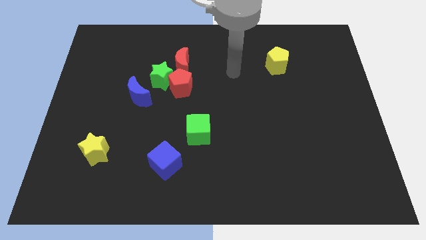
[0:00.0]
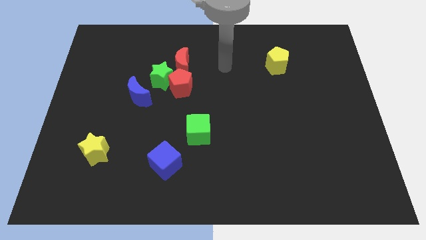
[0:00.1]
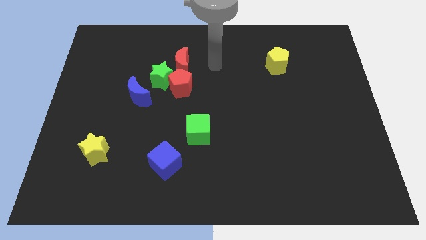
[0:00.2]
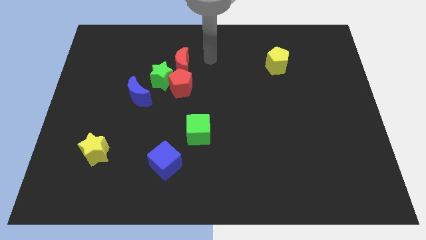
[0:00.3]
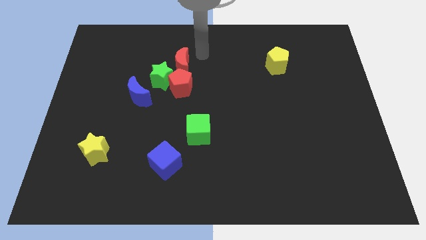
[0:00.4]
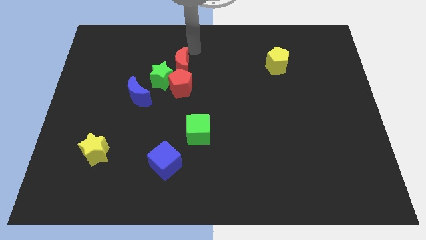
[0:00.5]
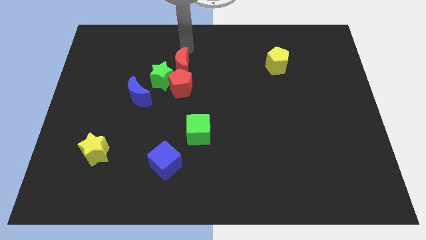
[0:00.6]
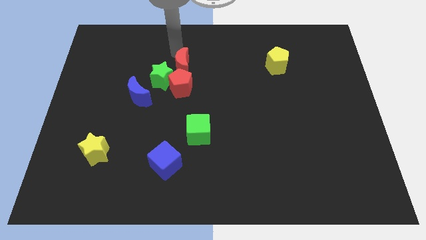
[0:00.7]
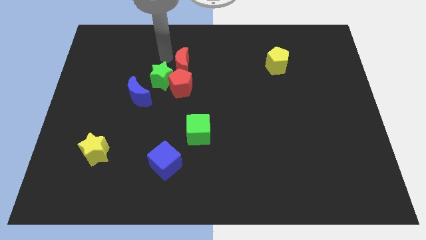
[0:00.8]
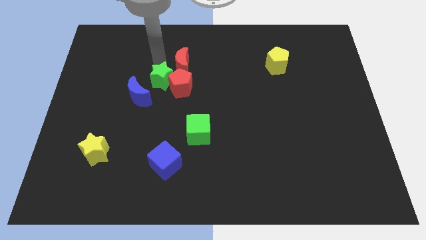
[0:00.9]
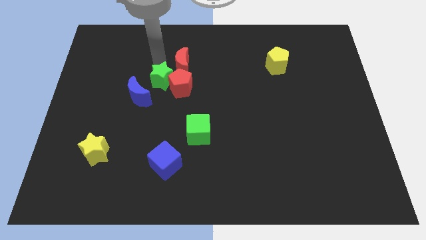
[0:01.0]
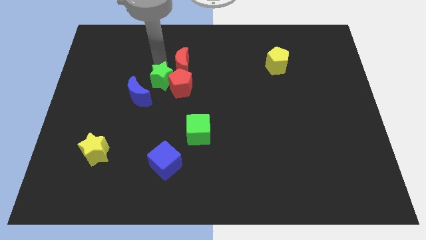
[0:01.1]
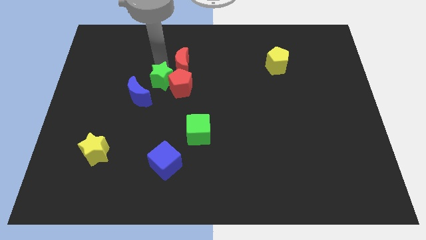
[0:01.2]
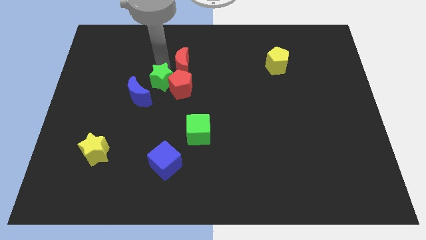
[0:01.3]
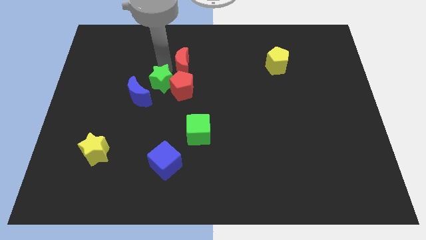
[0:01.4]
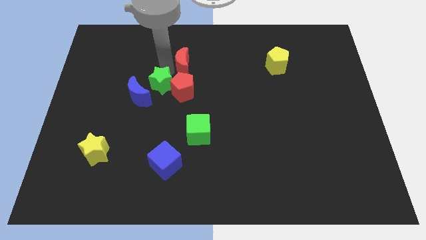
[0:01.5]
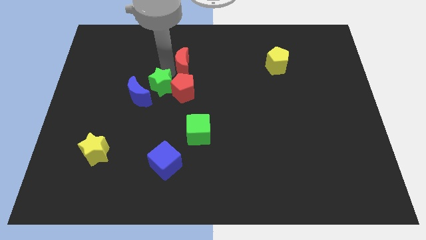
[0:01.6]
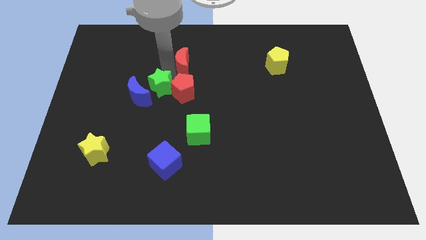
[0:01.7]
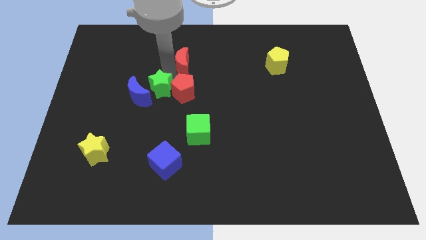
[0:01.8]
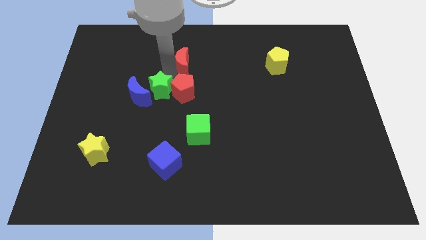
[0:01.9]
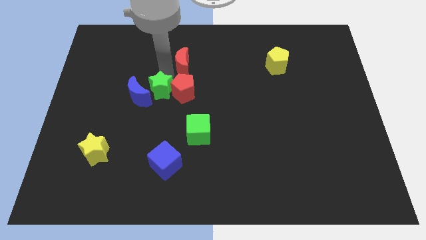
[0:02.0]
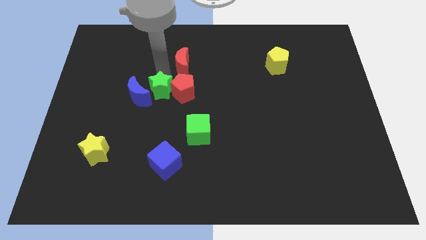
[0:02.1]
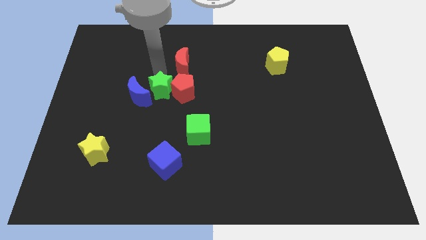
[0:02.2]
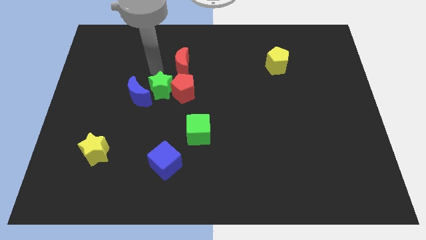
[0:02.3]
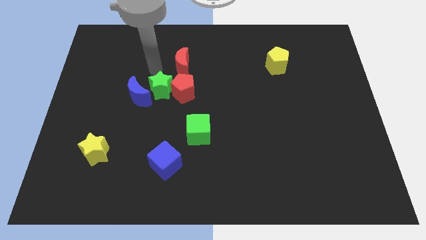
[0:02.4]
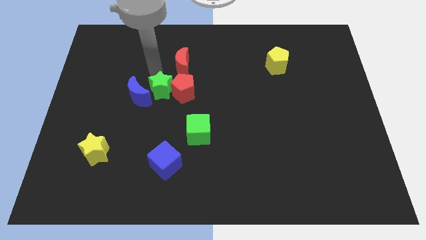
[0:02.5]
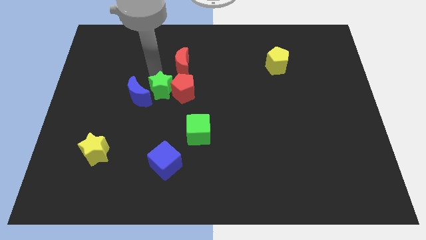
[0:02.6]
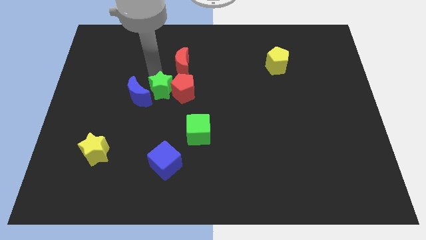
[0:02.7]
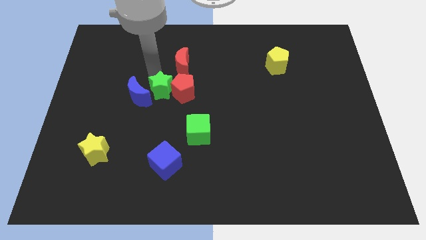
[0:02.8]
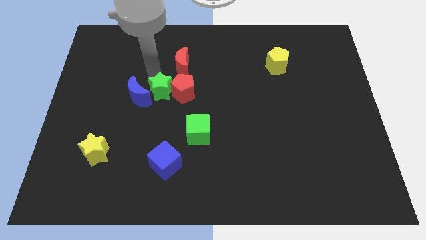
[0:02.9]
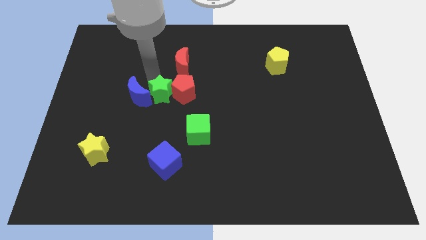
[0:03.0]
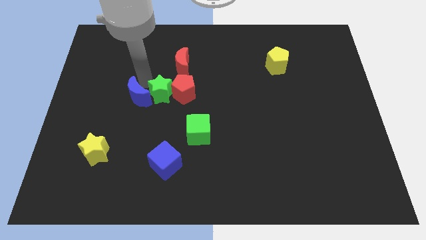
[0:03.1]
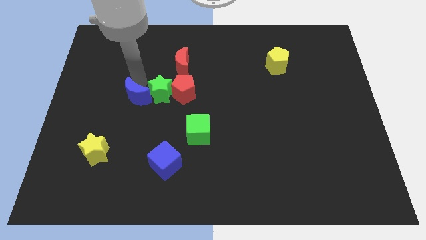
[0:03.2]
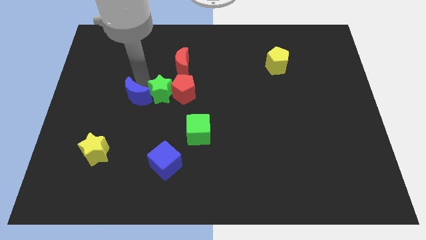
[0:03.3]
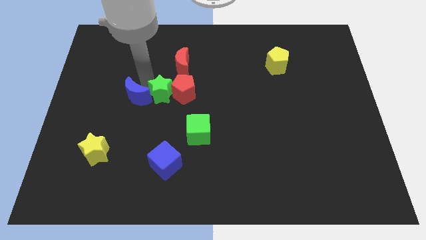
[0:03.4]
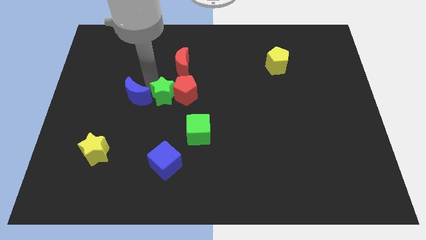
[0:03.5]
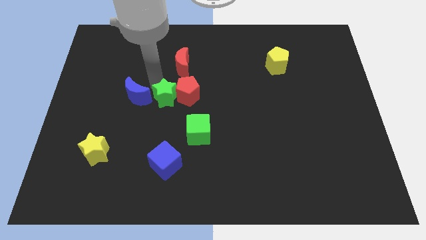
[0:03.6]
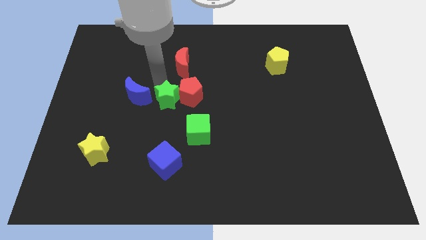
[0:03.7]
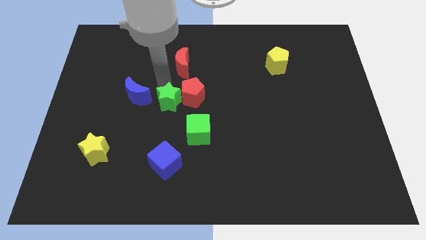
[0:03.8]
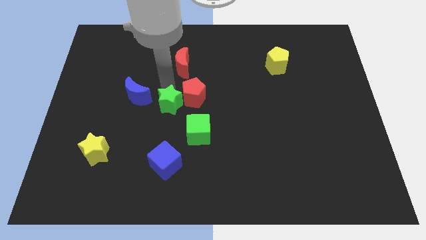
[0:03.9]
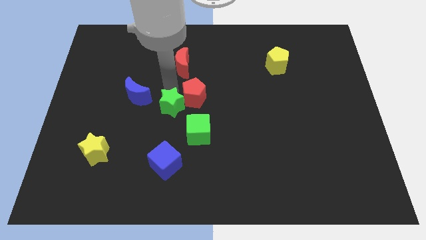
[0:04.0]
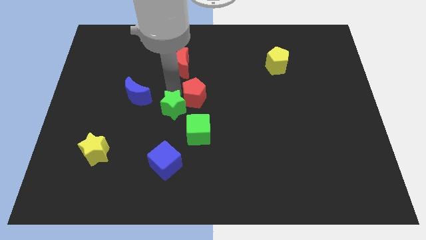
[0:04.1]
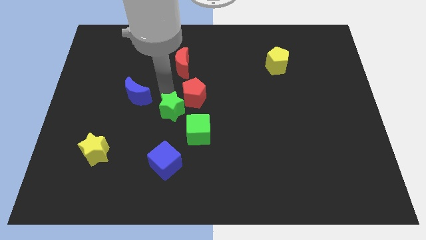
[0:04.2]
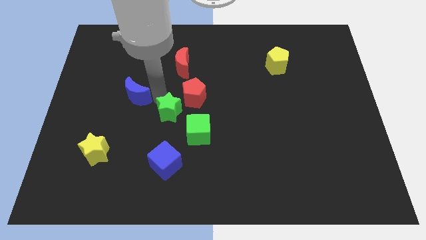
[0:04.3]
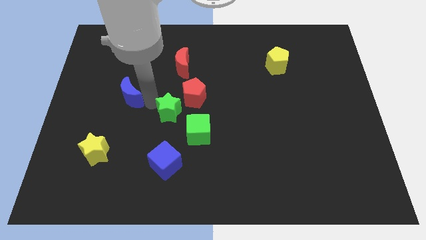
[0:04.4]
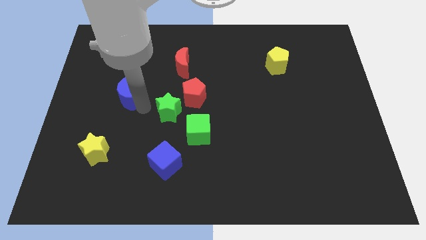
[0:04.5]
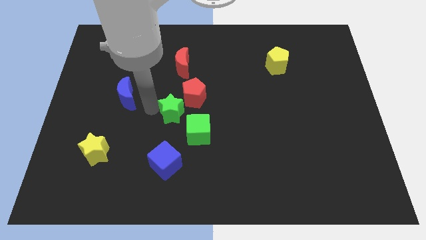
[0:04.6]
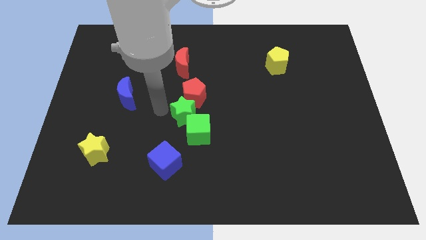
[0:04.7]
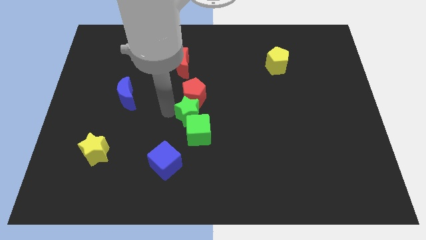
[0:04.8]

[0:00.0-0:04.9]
put the green star diagonally down and to the right of the red pentagon

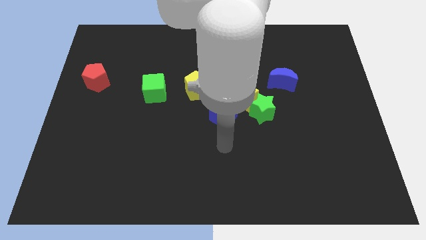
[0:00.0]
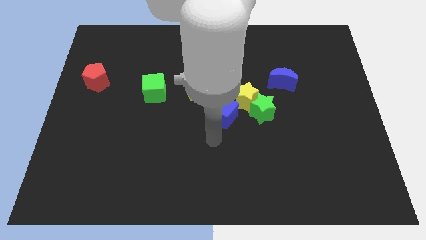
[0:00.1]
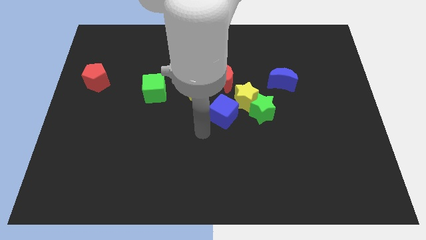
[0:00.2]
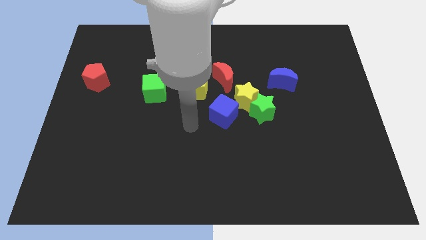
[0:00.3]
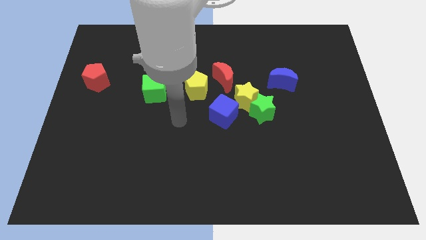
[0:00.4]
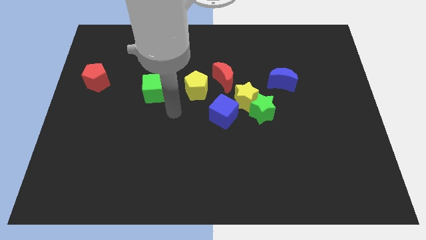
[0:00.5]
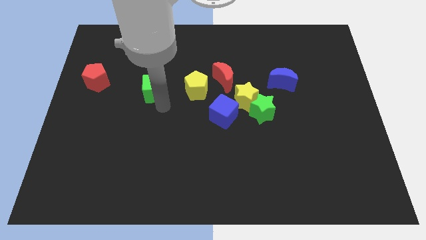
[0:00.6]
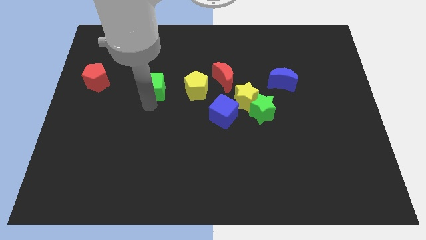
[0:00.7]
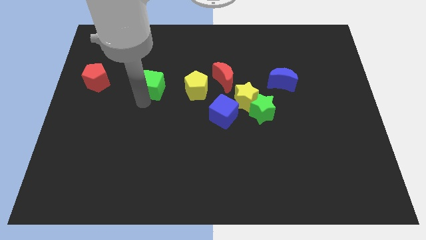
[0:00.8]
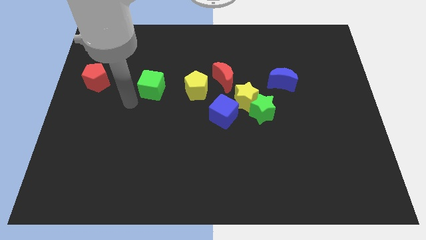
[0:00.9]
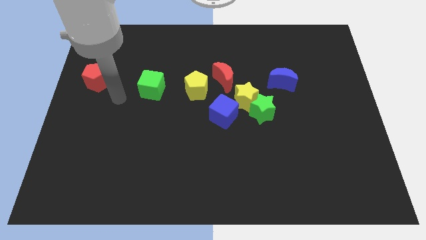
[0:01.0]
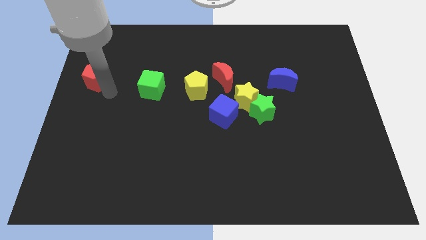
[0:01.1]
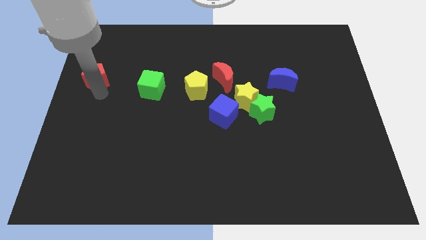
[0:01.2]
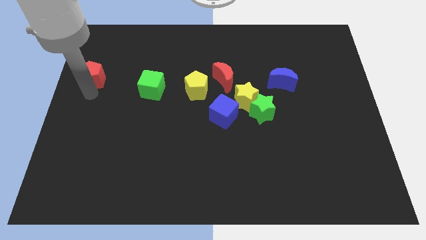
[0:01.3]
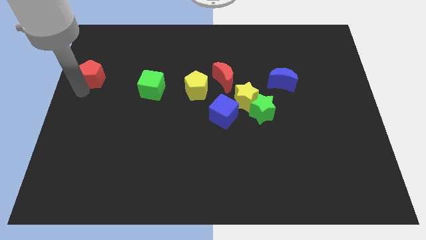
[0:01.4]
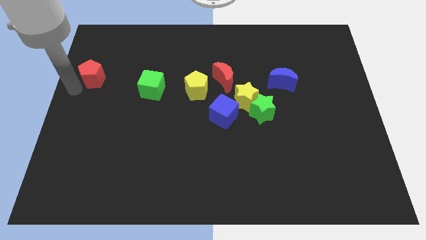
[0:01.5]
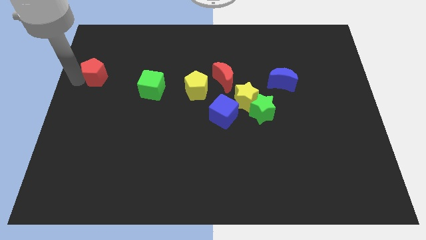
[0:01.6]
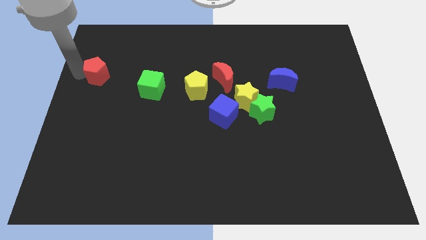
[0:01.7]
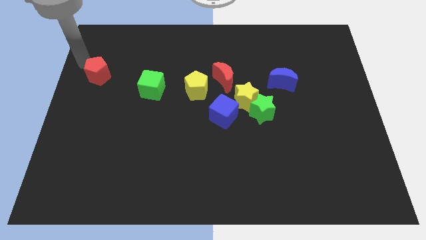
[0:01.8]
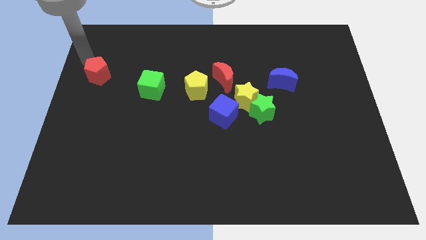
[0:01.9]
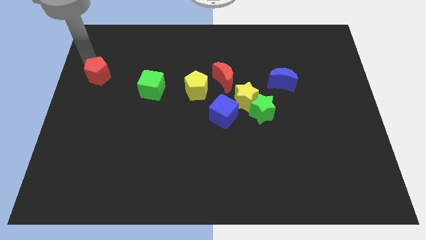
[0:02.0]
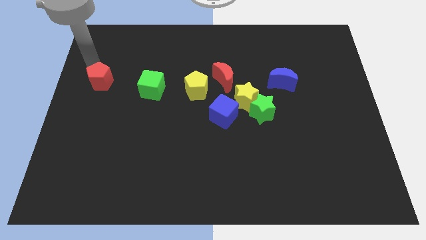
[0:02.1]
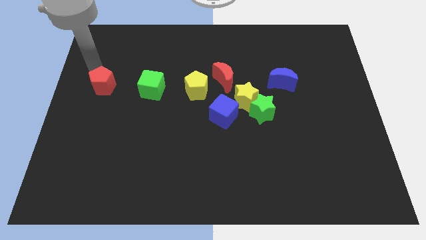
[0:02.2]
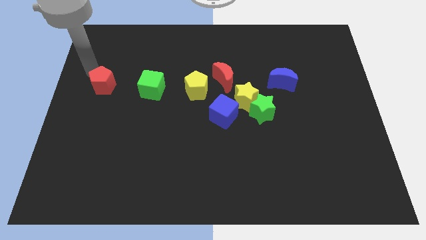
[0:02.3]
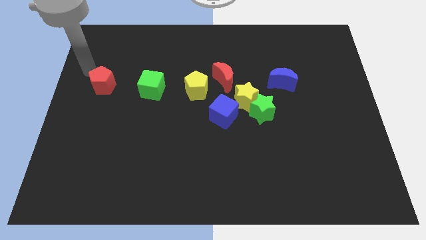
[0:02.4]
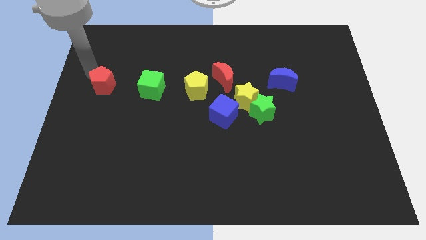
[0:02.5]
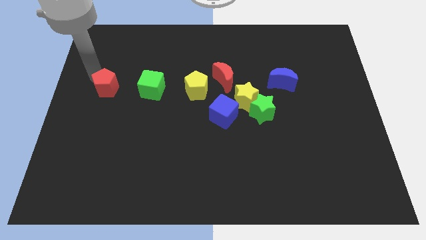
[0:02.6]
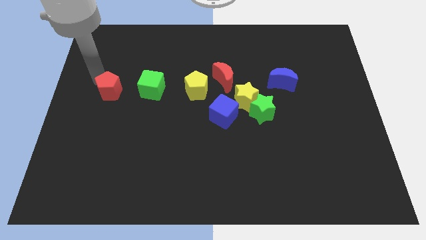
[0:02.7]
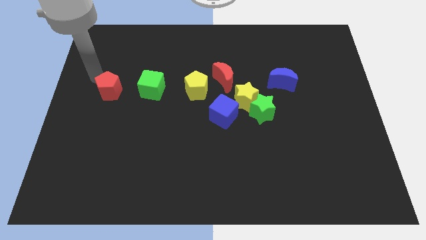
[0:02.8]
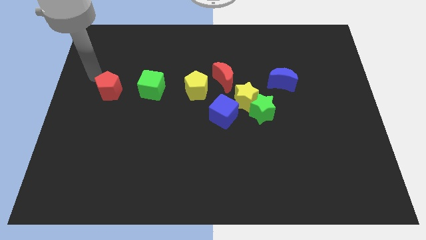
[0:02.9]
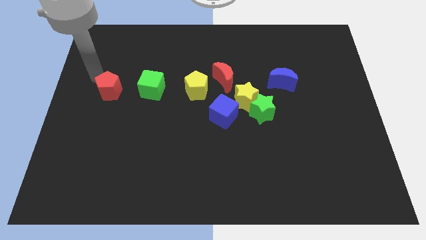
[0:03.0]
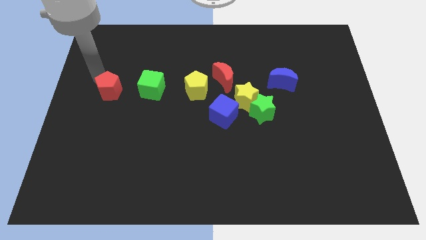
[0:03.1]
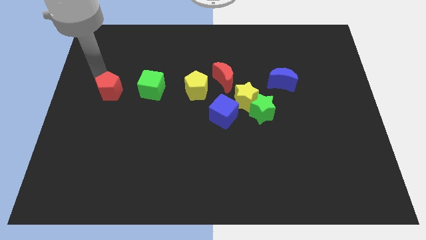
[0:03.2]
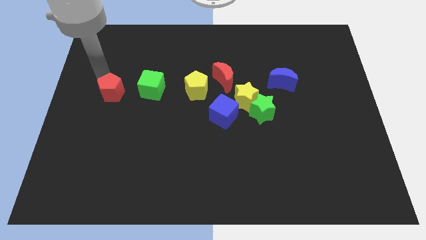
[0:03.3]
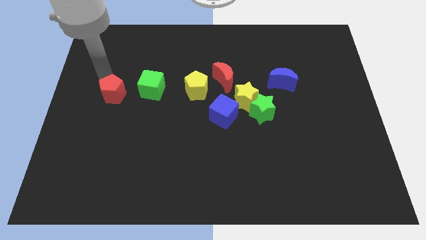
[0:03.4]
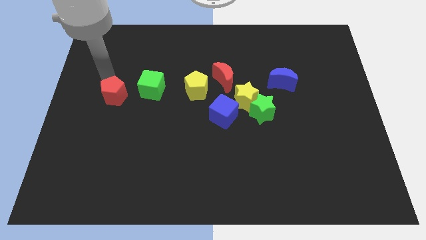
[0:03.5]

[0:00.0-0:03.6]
move the red pentagon to the bottom left of the green cube
